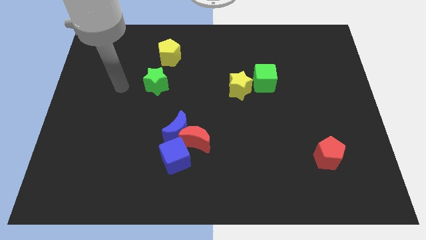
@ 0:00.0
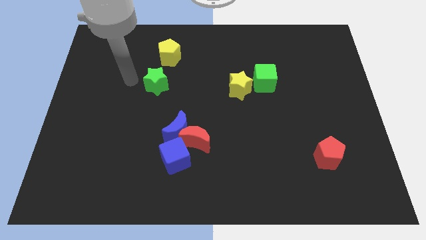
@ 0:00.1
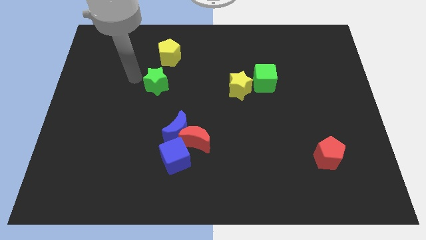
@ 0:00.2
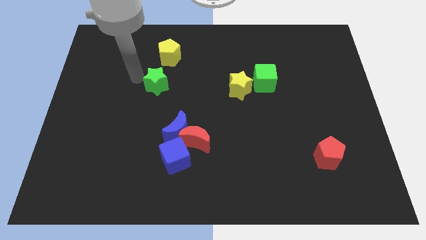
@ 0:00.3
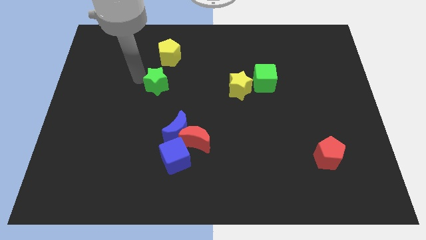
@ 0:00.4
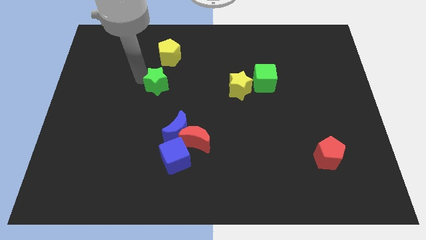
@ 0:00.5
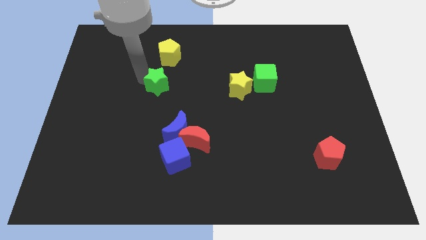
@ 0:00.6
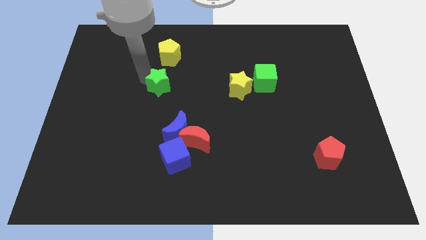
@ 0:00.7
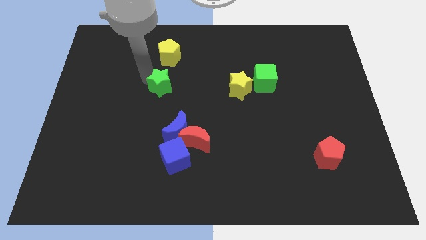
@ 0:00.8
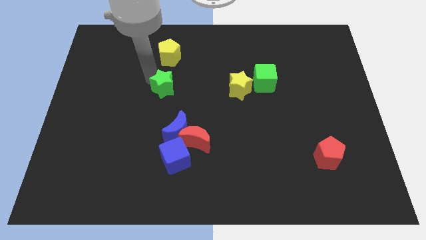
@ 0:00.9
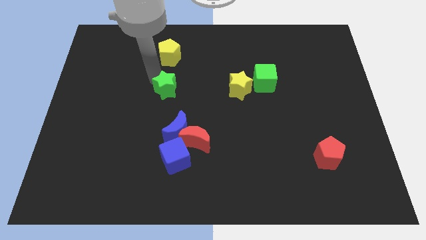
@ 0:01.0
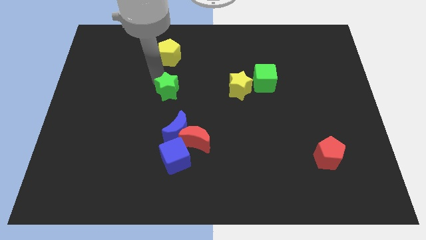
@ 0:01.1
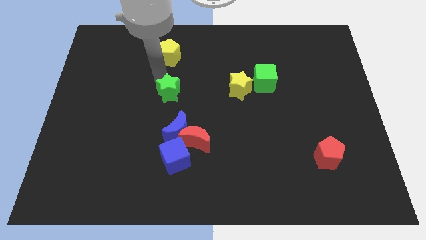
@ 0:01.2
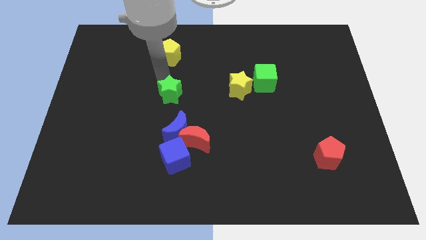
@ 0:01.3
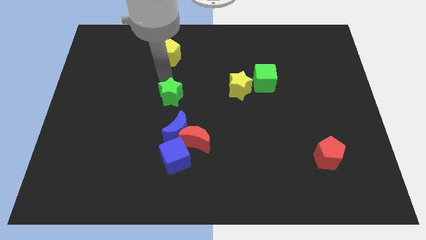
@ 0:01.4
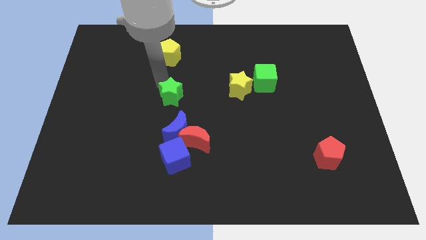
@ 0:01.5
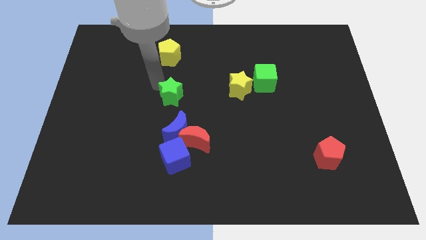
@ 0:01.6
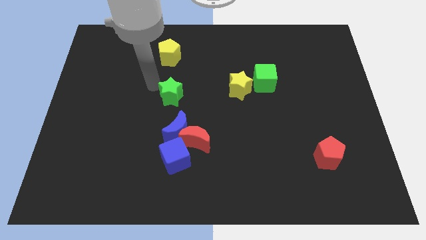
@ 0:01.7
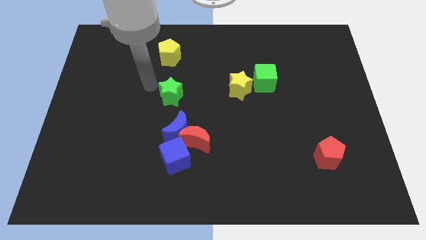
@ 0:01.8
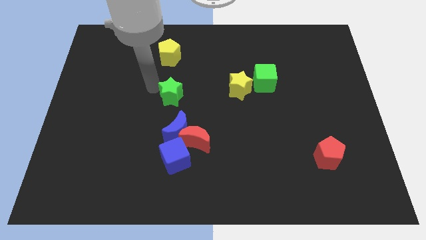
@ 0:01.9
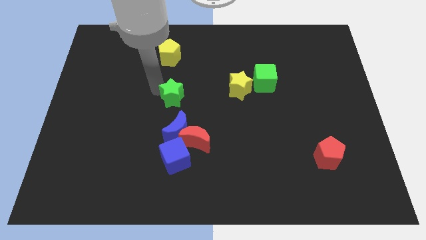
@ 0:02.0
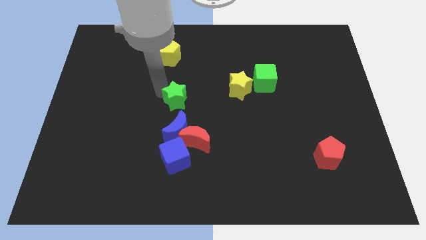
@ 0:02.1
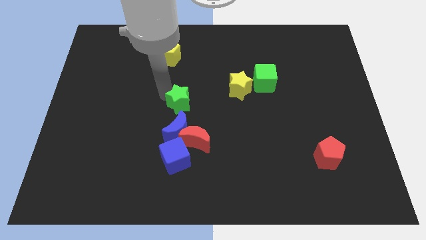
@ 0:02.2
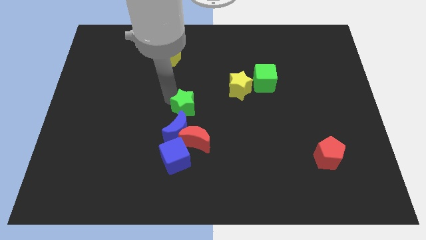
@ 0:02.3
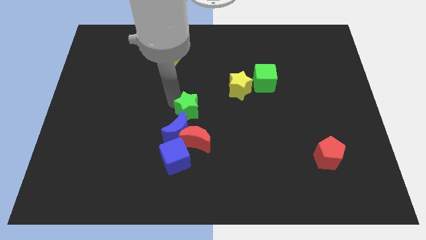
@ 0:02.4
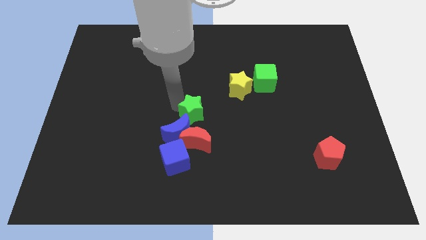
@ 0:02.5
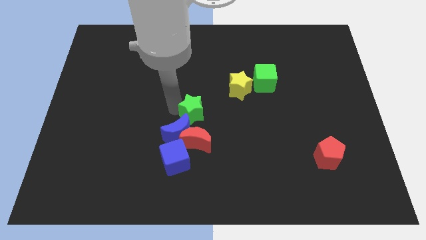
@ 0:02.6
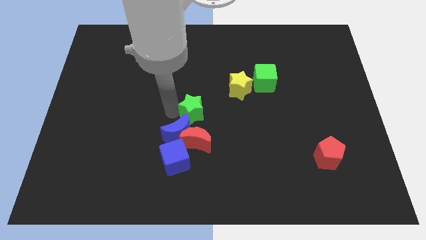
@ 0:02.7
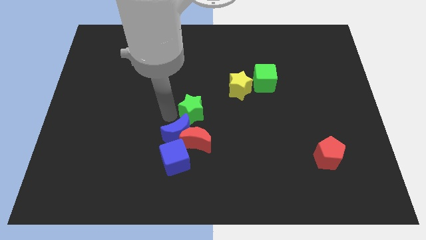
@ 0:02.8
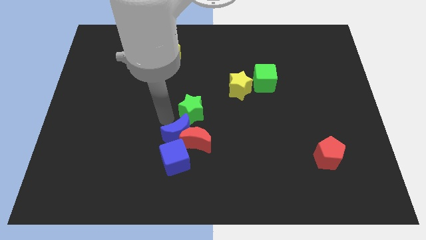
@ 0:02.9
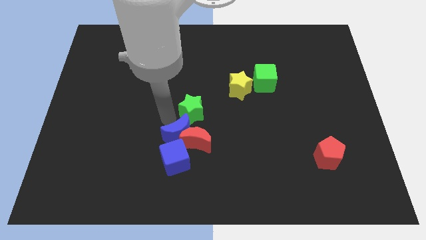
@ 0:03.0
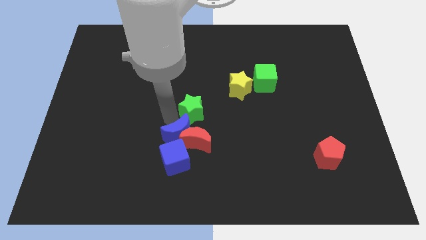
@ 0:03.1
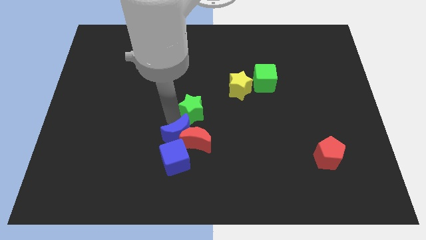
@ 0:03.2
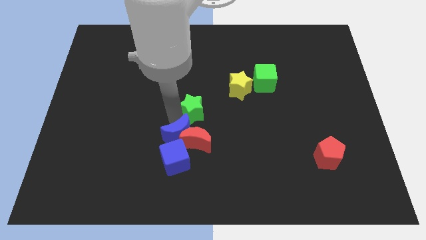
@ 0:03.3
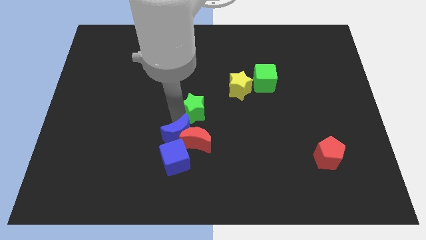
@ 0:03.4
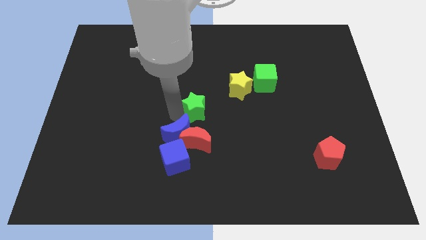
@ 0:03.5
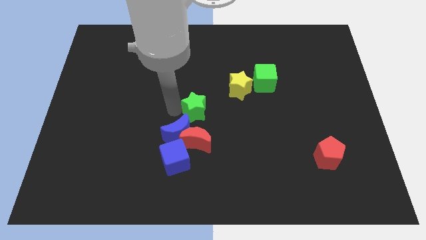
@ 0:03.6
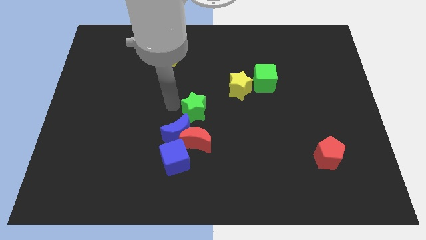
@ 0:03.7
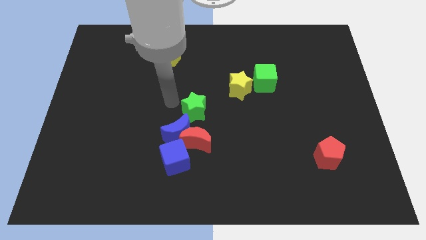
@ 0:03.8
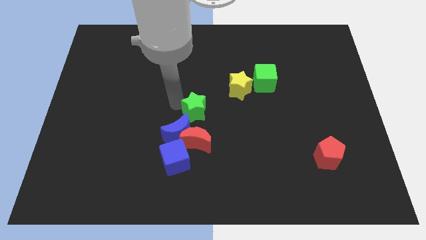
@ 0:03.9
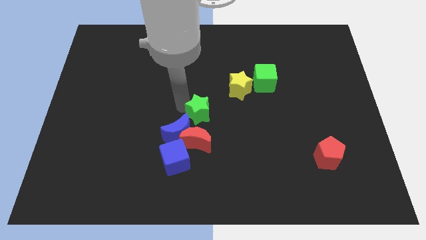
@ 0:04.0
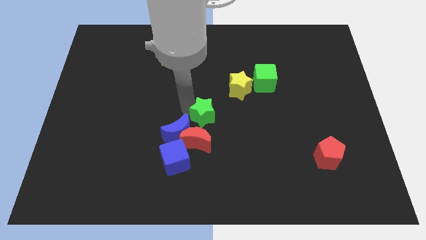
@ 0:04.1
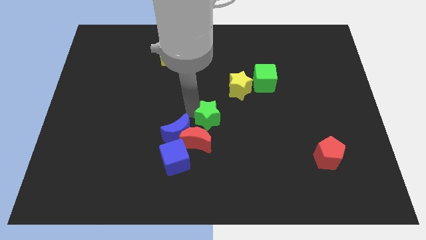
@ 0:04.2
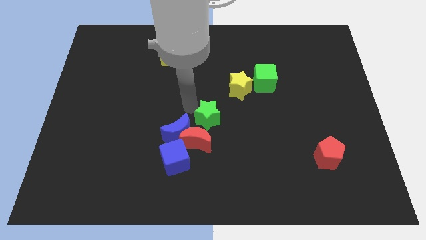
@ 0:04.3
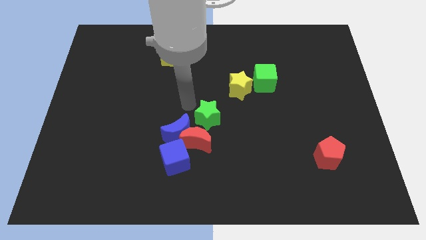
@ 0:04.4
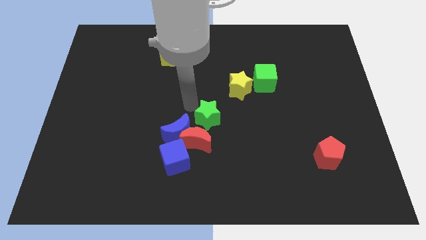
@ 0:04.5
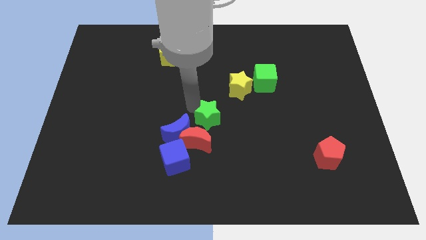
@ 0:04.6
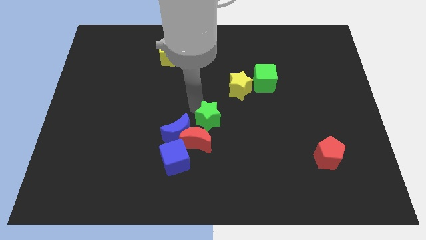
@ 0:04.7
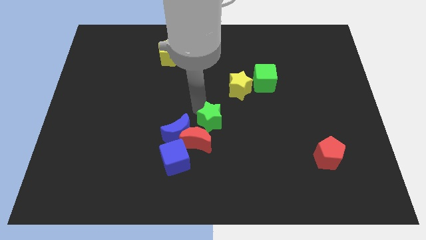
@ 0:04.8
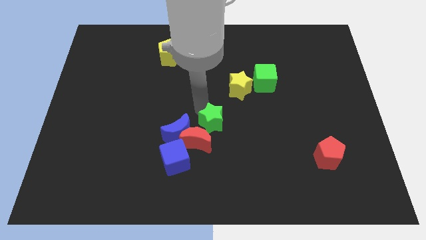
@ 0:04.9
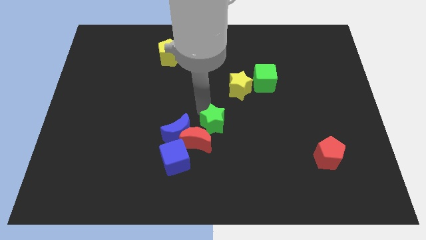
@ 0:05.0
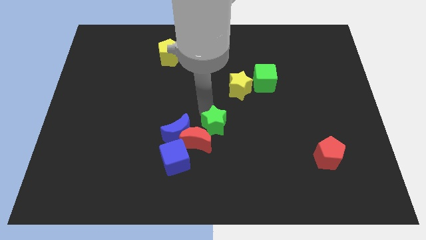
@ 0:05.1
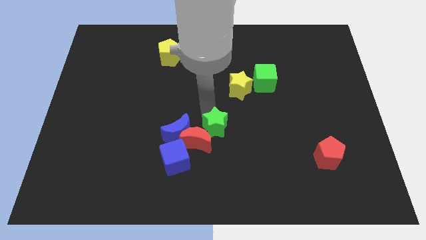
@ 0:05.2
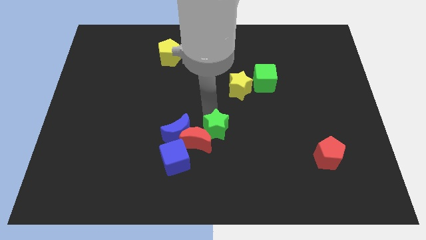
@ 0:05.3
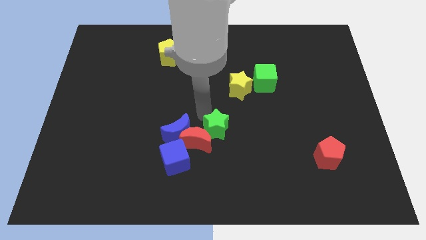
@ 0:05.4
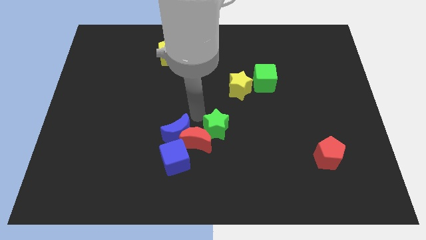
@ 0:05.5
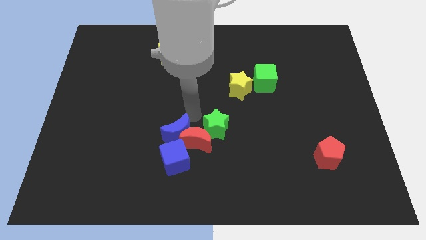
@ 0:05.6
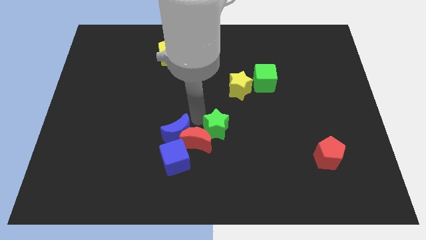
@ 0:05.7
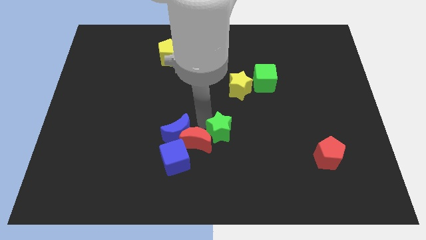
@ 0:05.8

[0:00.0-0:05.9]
move the green star diagonally down and right

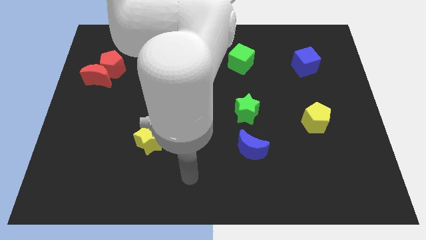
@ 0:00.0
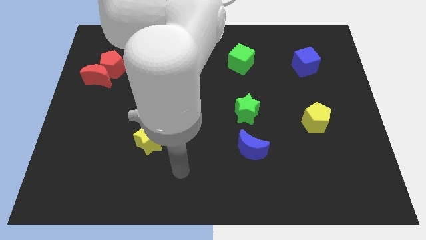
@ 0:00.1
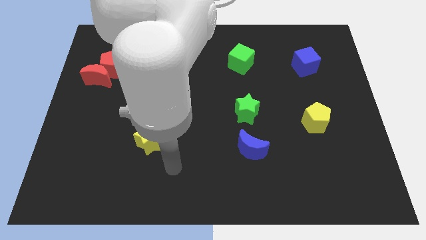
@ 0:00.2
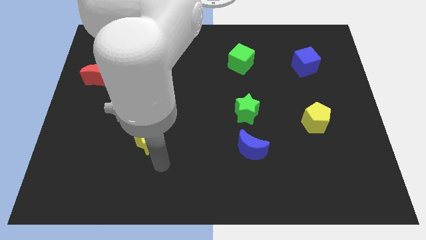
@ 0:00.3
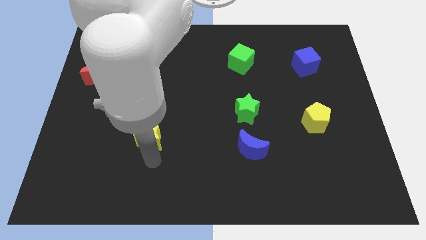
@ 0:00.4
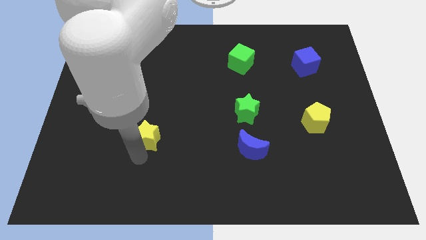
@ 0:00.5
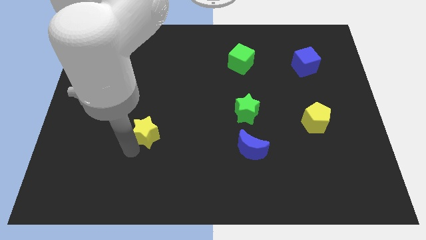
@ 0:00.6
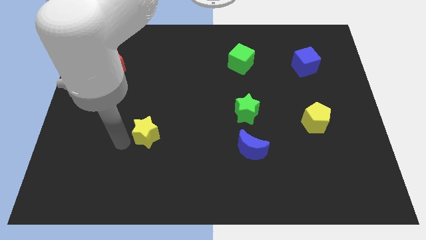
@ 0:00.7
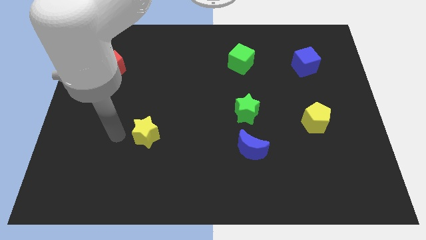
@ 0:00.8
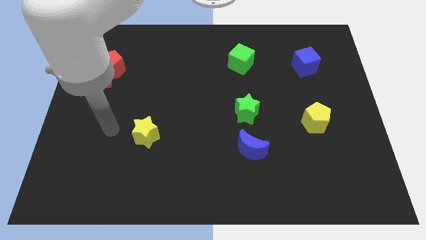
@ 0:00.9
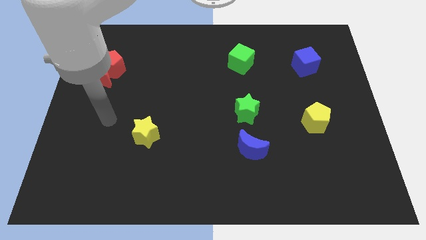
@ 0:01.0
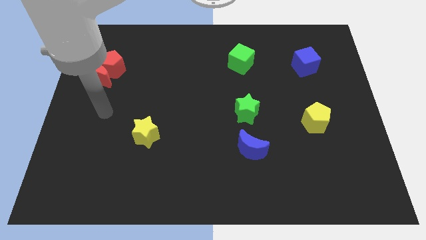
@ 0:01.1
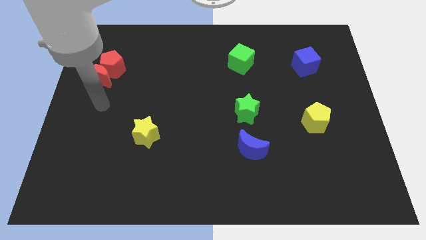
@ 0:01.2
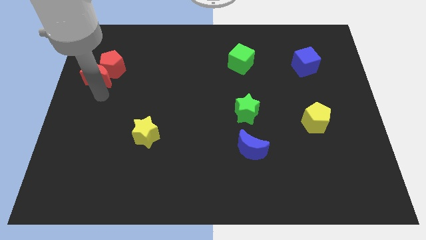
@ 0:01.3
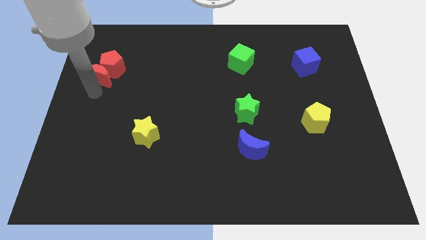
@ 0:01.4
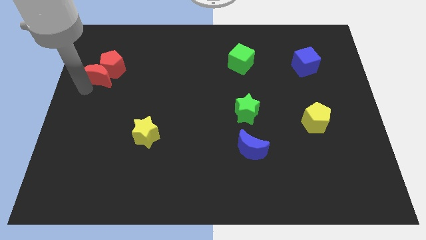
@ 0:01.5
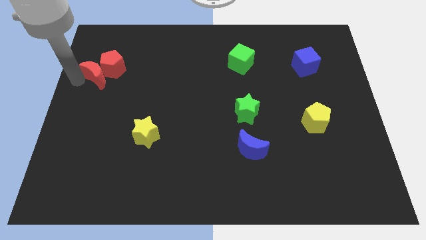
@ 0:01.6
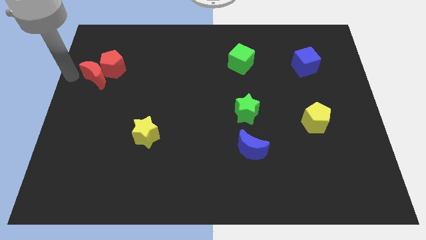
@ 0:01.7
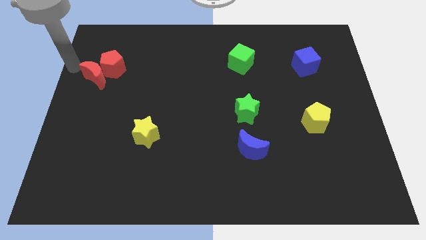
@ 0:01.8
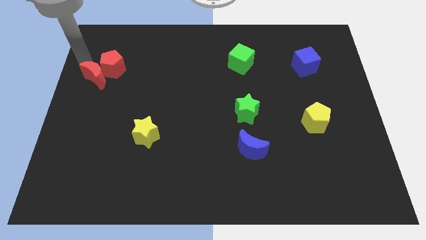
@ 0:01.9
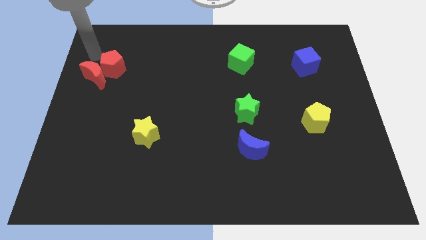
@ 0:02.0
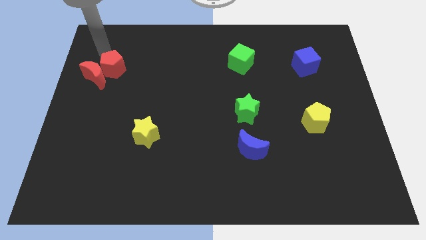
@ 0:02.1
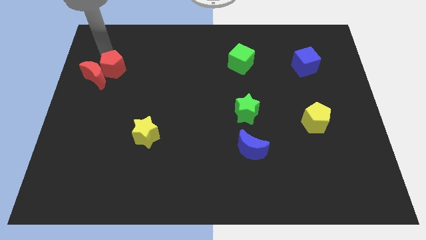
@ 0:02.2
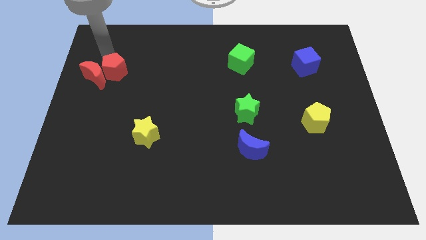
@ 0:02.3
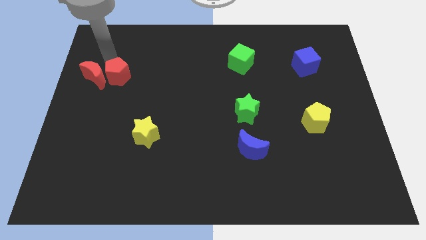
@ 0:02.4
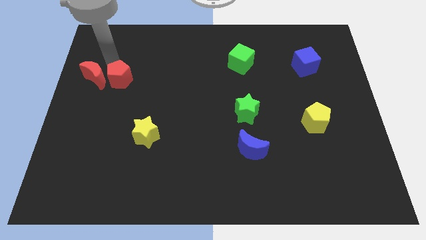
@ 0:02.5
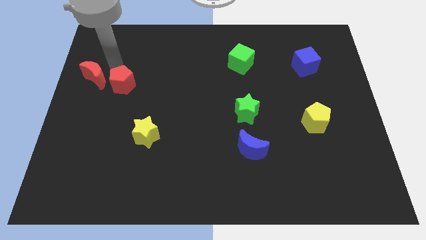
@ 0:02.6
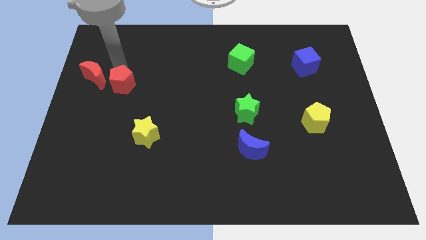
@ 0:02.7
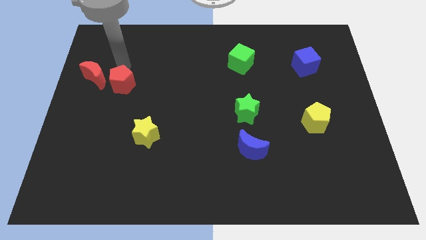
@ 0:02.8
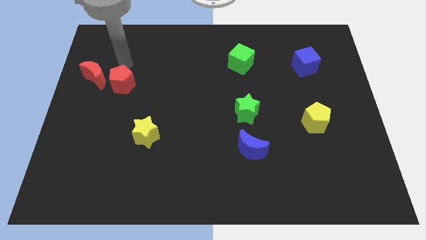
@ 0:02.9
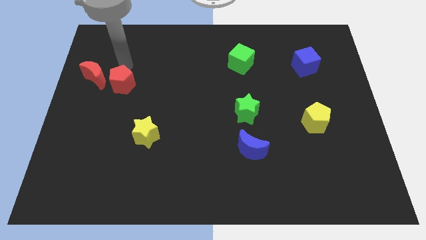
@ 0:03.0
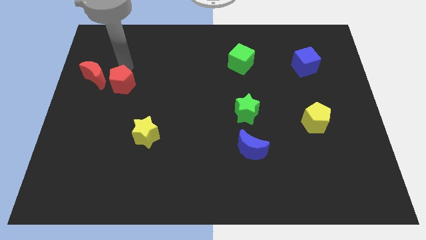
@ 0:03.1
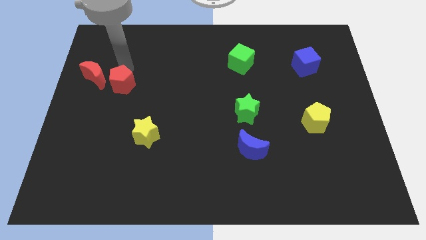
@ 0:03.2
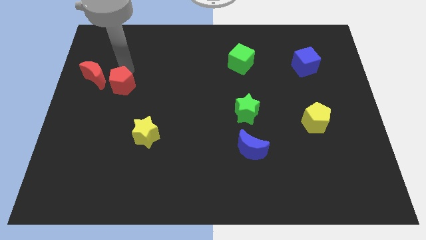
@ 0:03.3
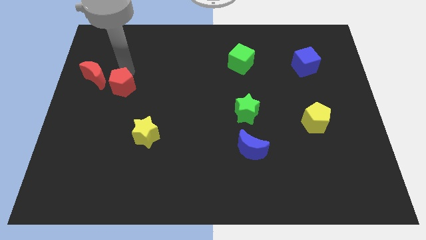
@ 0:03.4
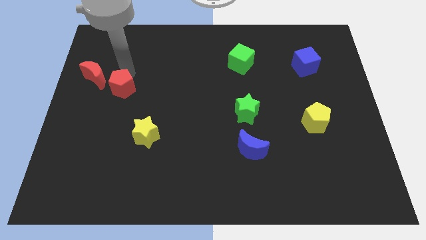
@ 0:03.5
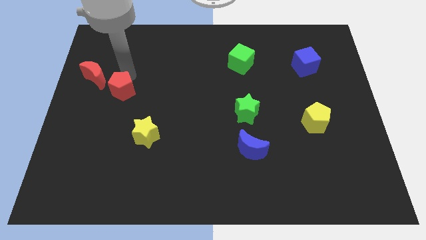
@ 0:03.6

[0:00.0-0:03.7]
move the red pentagon down a bit
